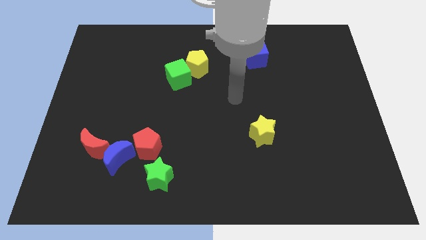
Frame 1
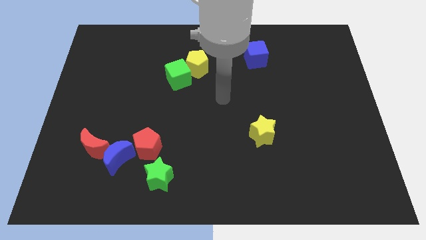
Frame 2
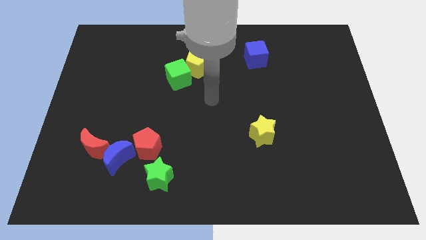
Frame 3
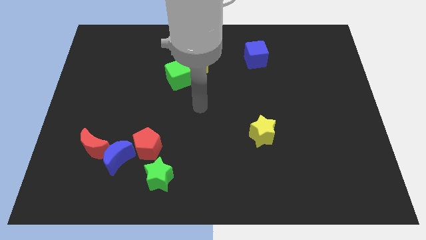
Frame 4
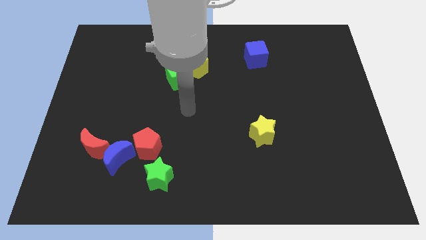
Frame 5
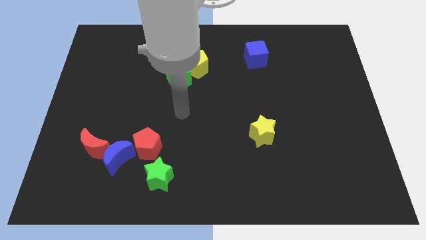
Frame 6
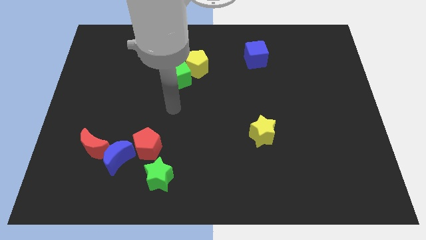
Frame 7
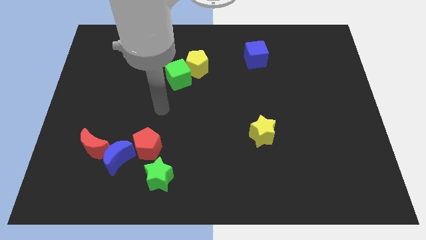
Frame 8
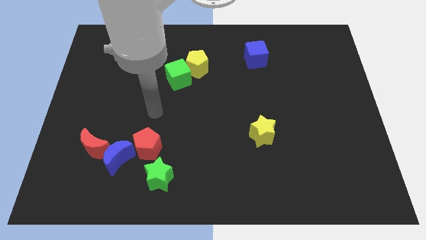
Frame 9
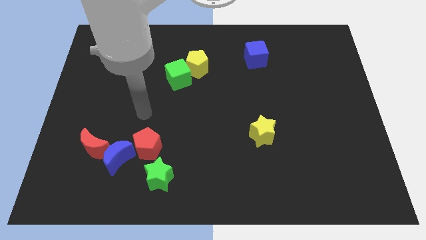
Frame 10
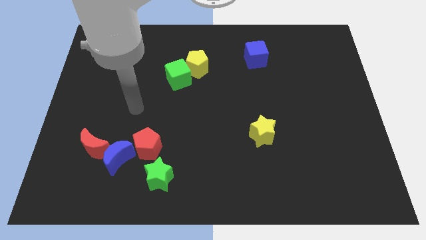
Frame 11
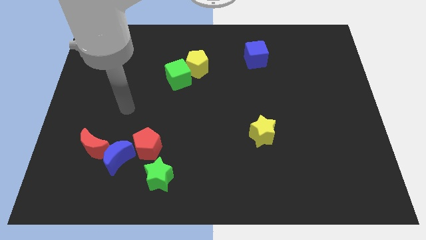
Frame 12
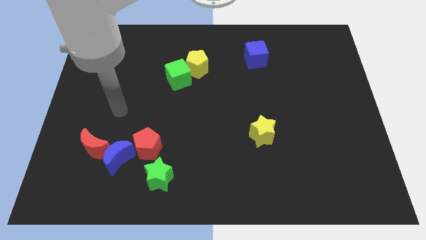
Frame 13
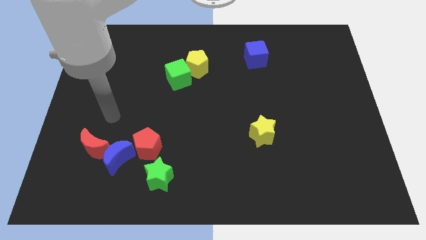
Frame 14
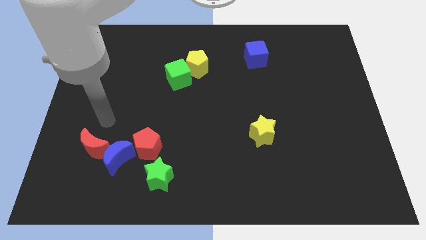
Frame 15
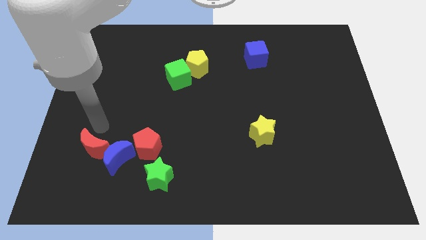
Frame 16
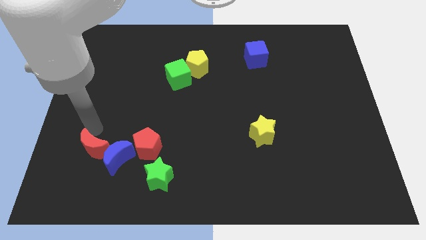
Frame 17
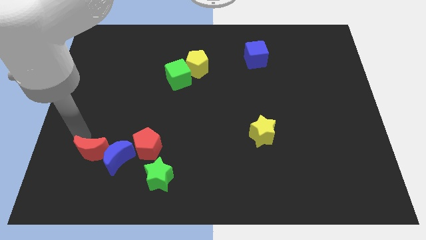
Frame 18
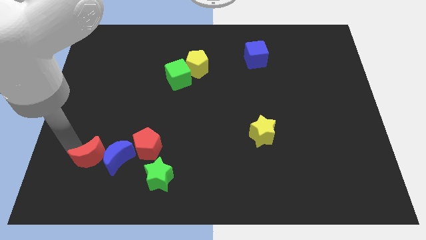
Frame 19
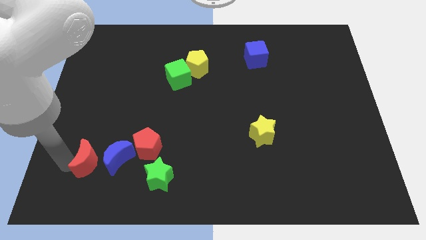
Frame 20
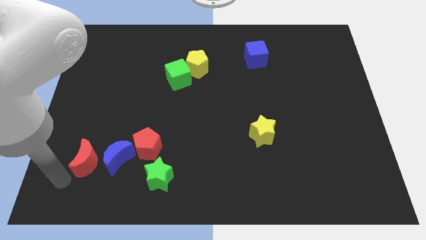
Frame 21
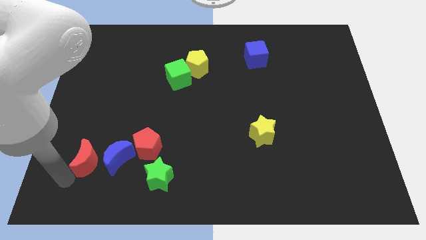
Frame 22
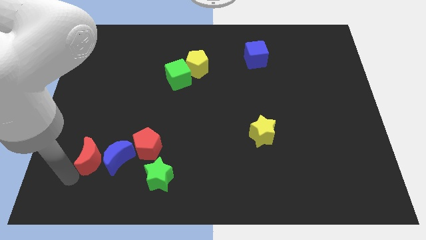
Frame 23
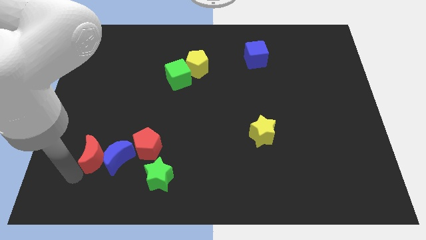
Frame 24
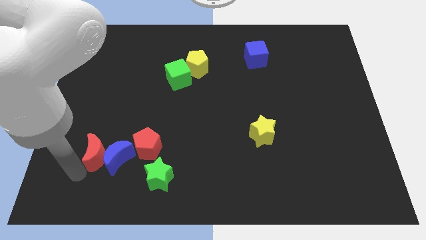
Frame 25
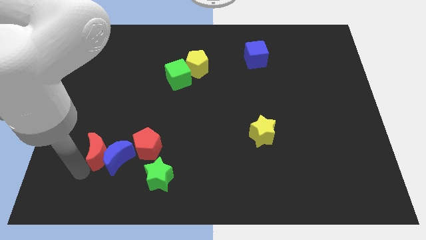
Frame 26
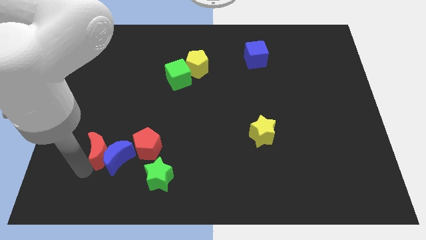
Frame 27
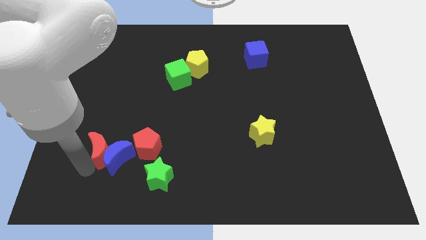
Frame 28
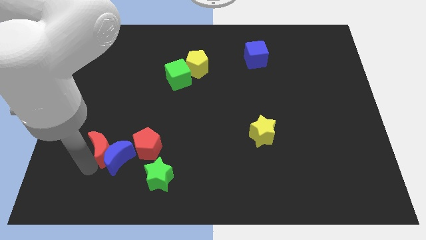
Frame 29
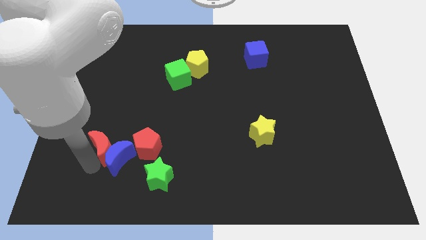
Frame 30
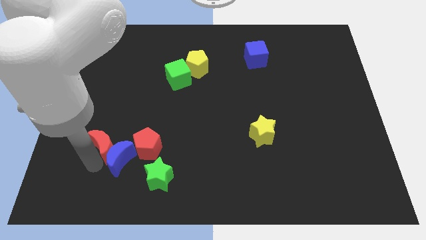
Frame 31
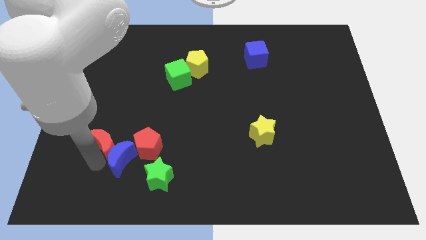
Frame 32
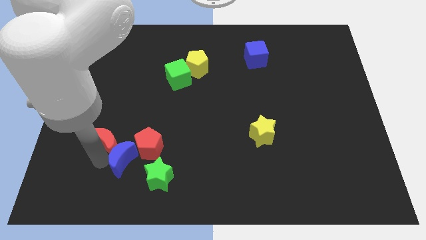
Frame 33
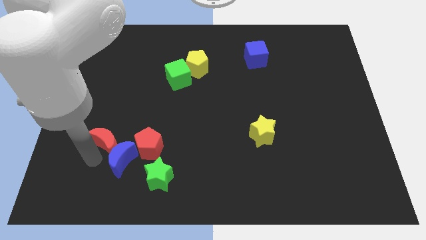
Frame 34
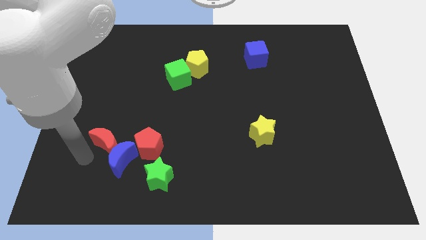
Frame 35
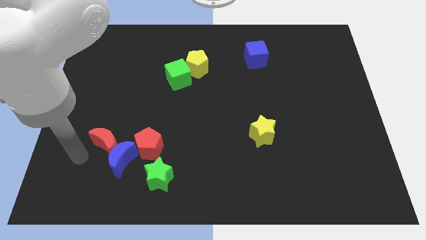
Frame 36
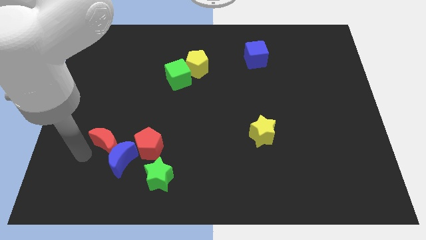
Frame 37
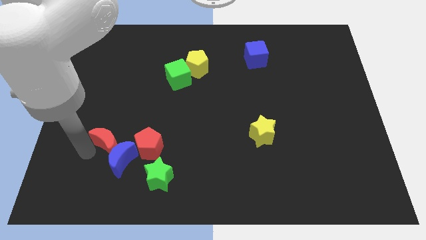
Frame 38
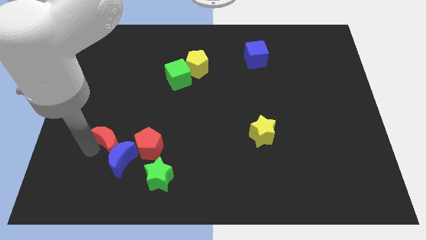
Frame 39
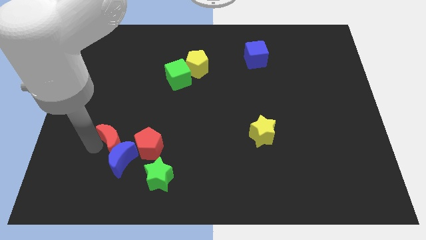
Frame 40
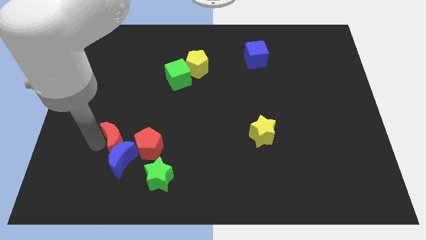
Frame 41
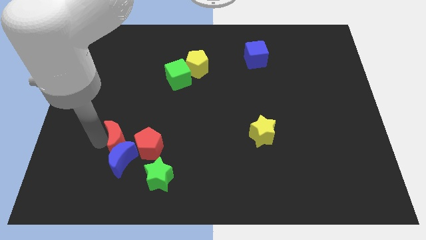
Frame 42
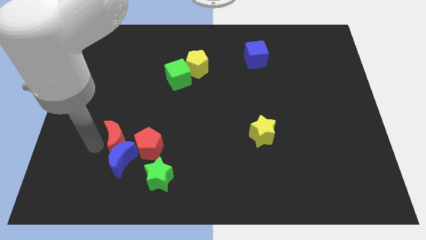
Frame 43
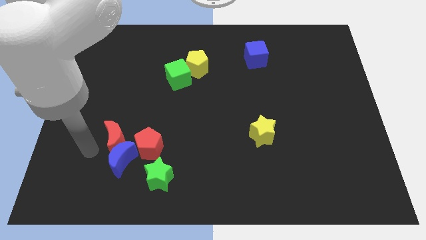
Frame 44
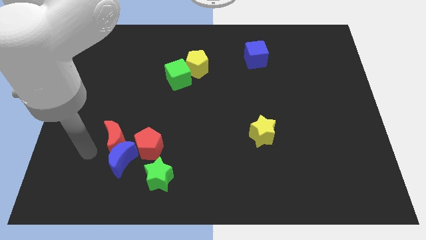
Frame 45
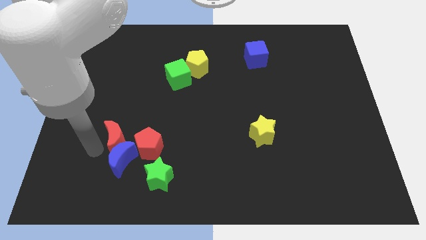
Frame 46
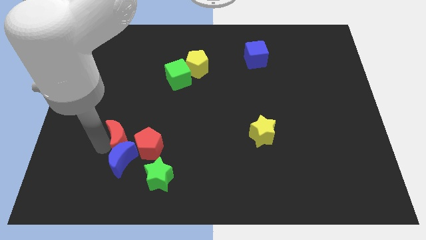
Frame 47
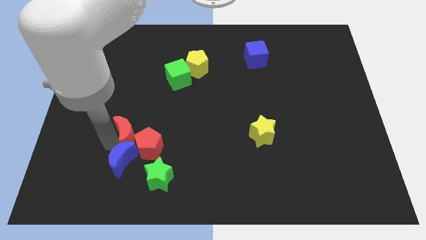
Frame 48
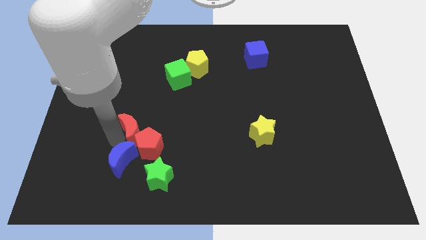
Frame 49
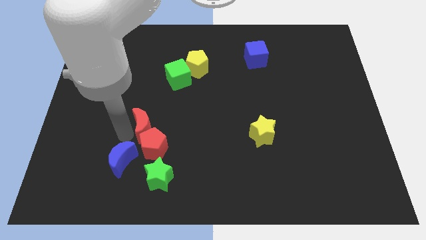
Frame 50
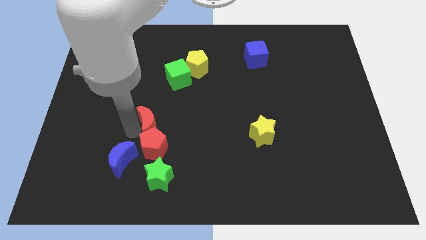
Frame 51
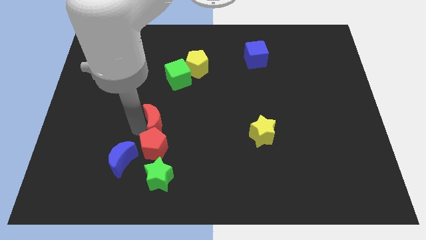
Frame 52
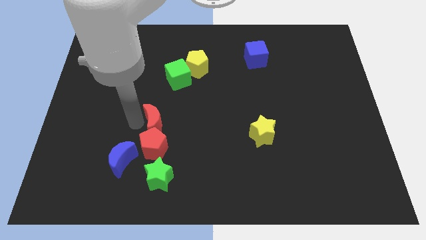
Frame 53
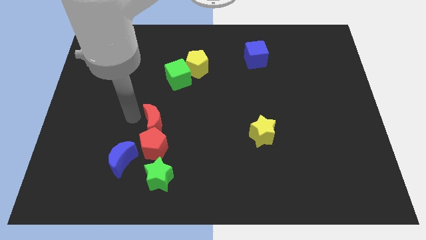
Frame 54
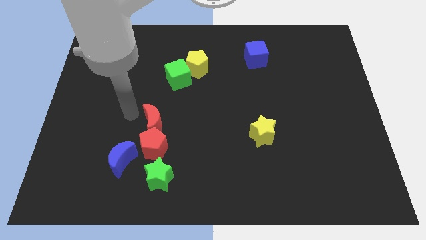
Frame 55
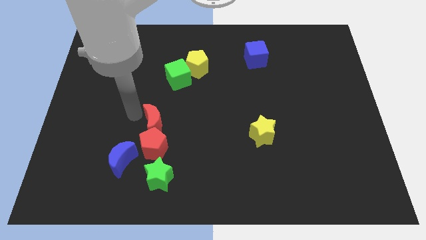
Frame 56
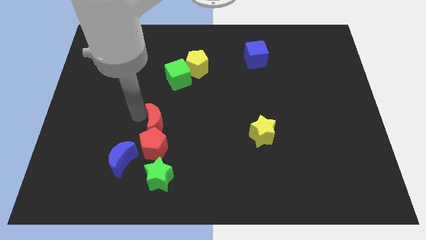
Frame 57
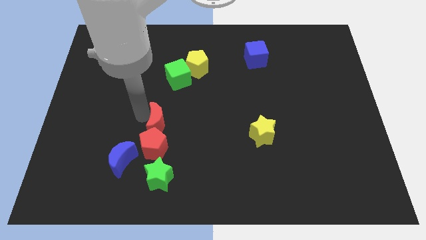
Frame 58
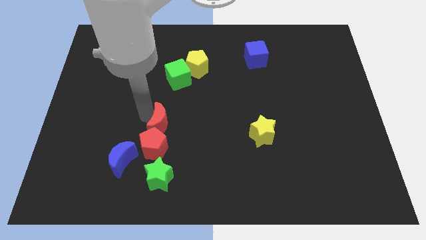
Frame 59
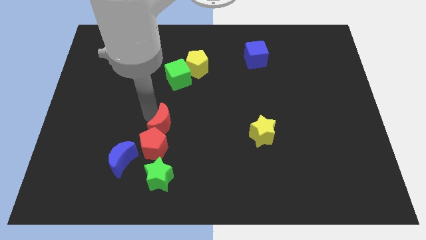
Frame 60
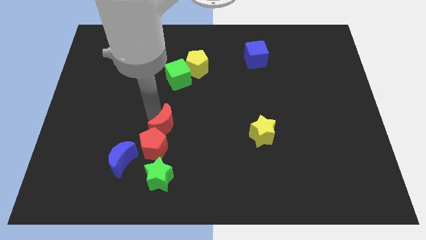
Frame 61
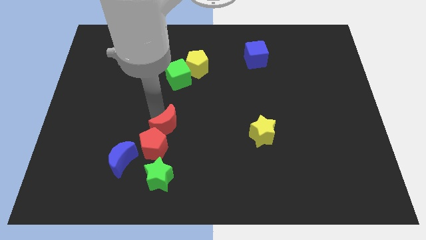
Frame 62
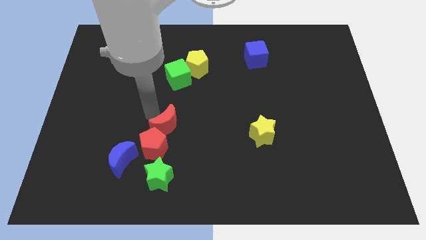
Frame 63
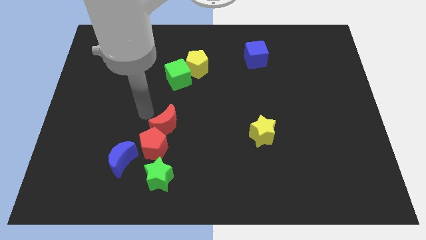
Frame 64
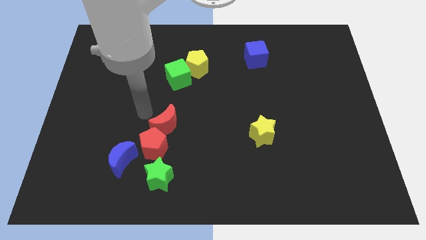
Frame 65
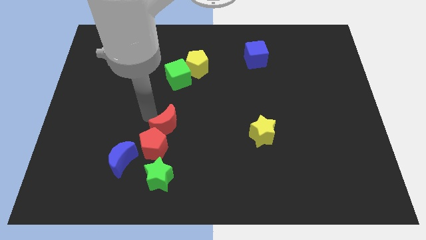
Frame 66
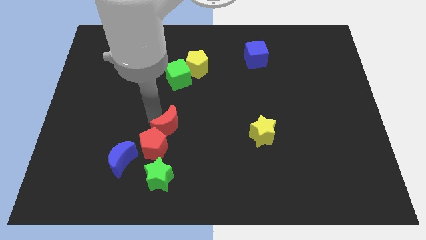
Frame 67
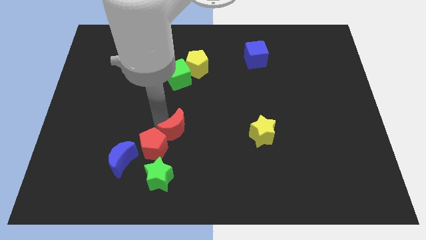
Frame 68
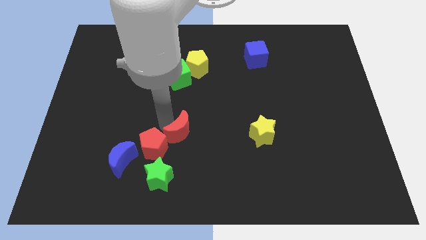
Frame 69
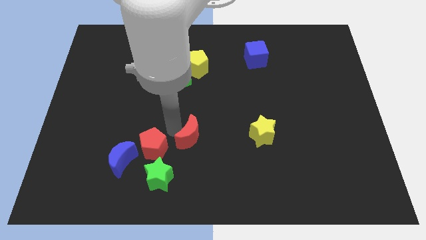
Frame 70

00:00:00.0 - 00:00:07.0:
push the red moon to the right

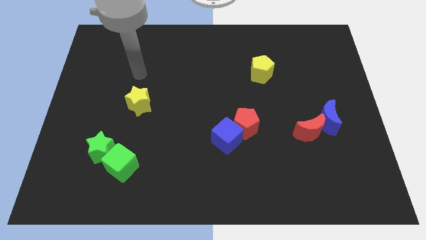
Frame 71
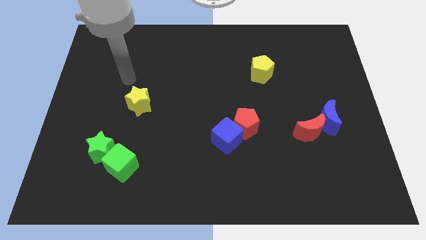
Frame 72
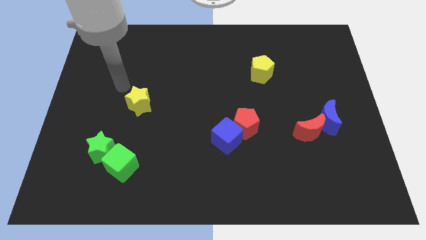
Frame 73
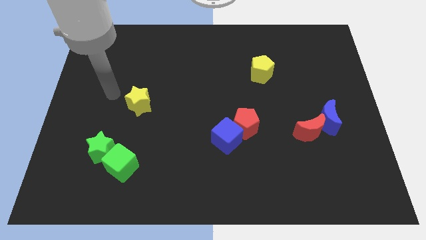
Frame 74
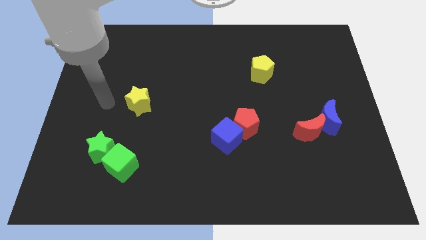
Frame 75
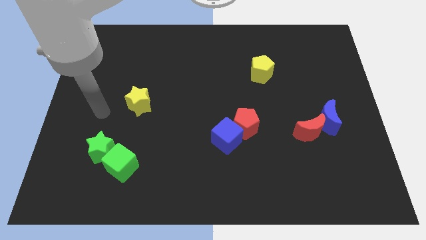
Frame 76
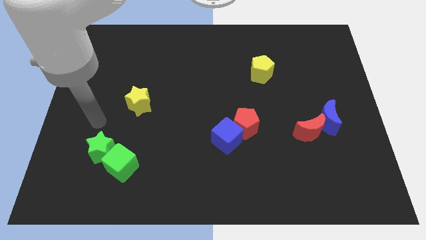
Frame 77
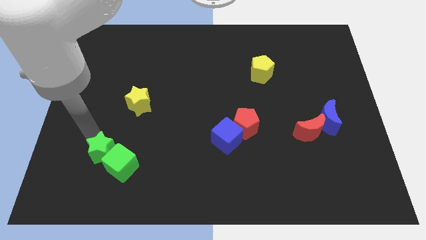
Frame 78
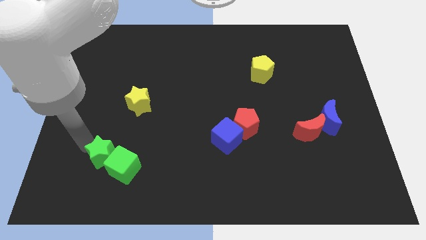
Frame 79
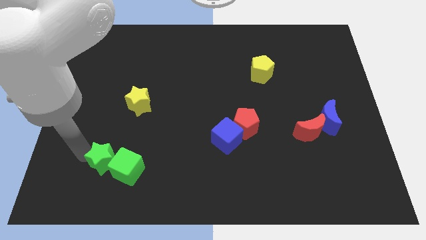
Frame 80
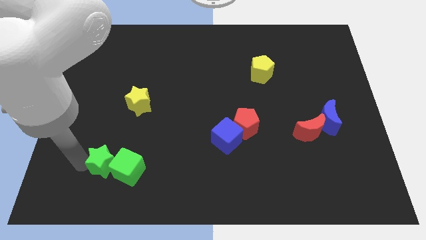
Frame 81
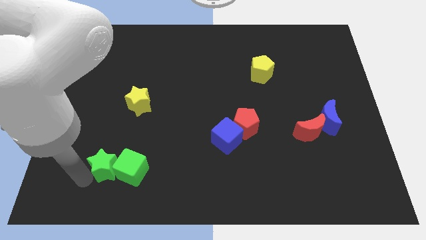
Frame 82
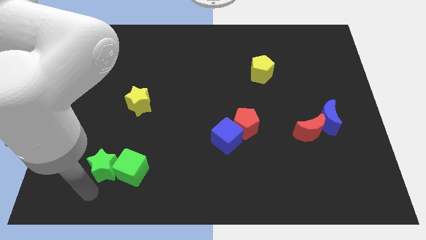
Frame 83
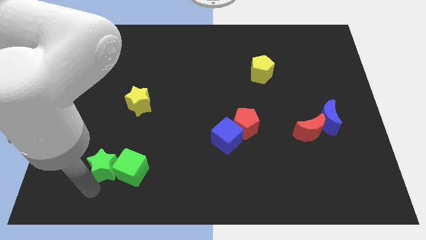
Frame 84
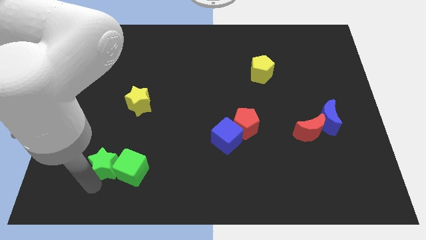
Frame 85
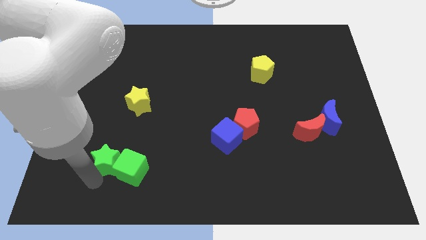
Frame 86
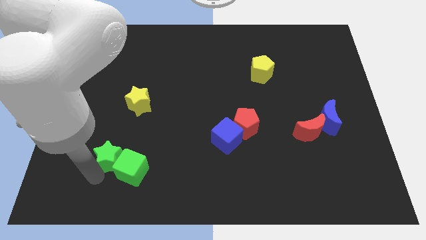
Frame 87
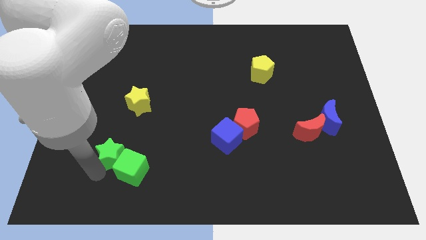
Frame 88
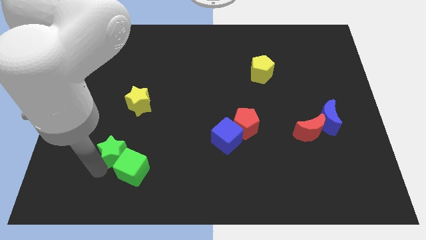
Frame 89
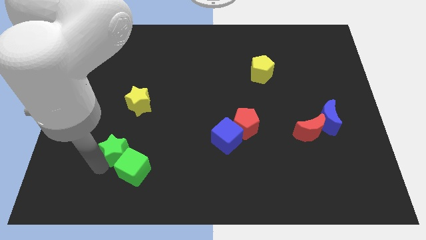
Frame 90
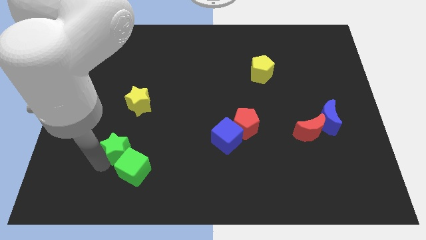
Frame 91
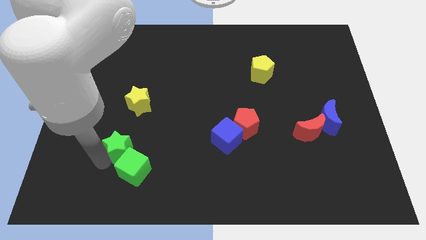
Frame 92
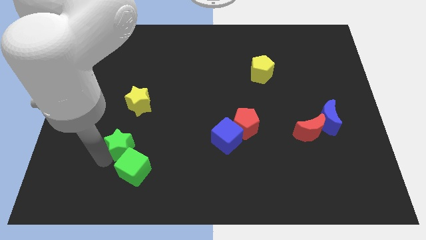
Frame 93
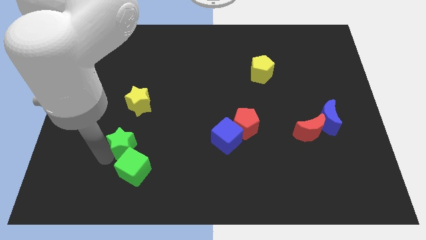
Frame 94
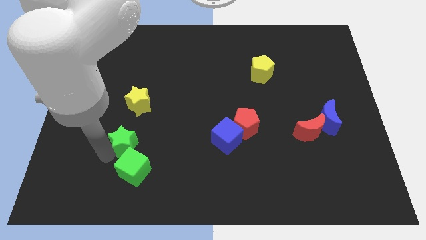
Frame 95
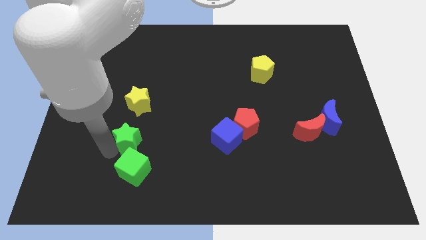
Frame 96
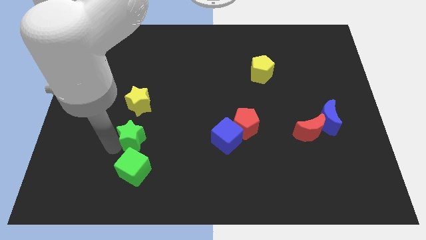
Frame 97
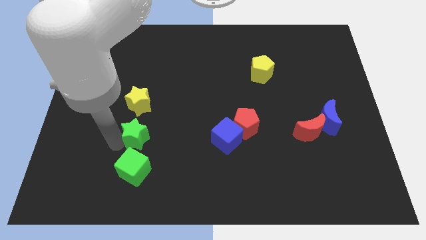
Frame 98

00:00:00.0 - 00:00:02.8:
slightly push the green star diagonally up and right
